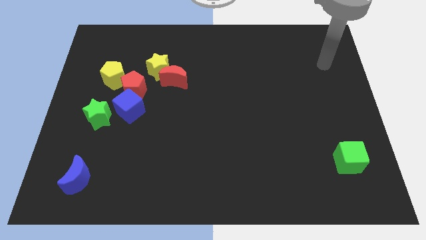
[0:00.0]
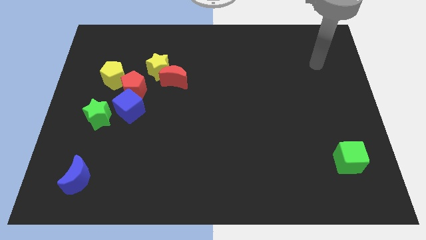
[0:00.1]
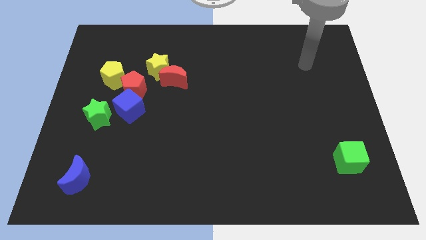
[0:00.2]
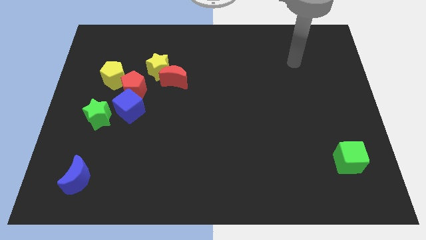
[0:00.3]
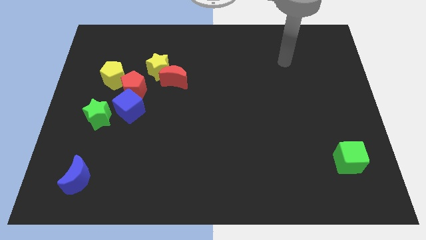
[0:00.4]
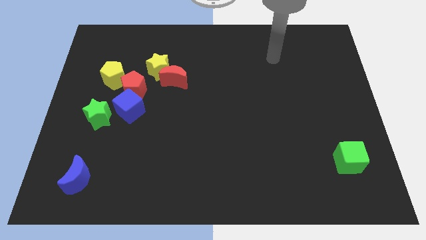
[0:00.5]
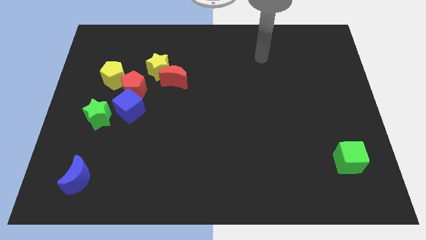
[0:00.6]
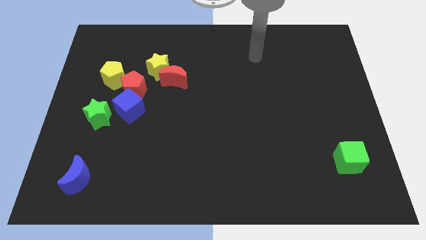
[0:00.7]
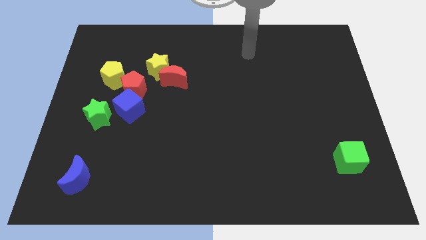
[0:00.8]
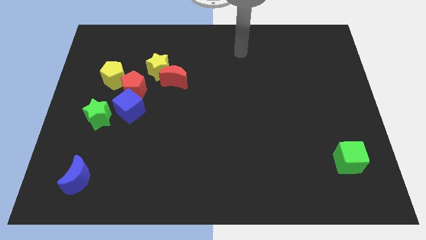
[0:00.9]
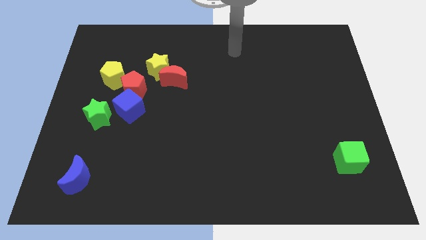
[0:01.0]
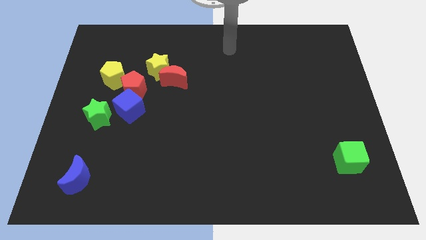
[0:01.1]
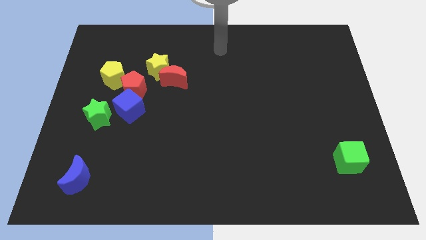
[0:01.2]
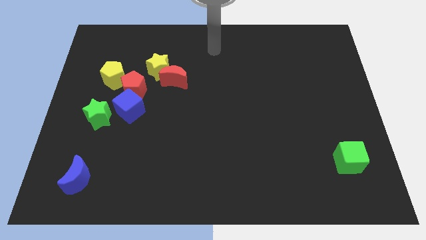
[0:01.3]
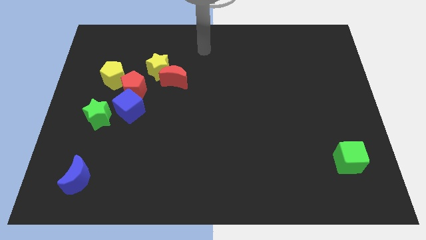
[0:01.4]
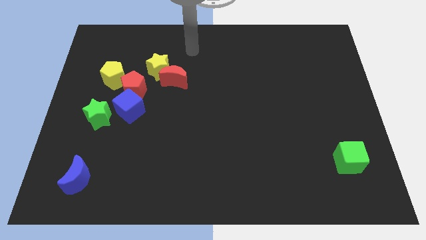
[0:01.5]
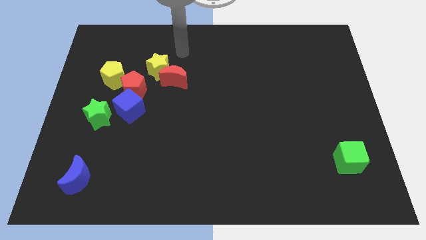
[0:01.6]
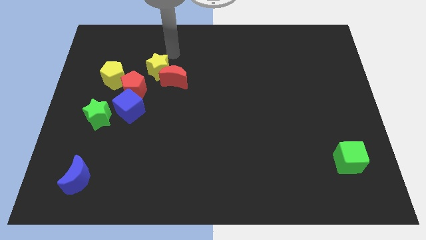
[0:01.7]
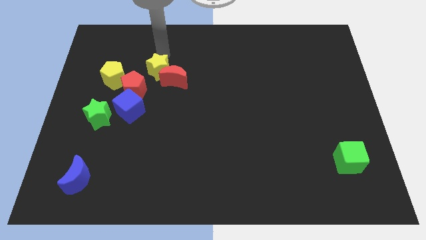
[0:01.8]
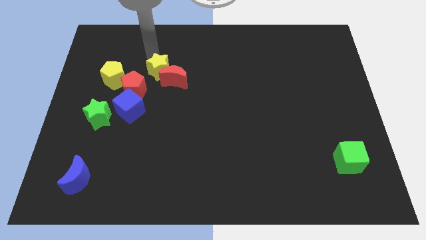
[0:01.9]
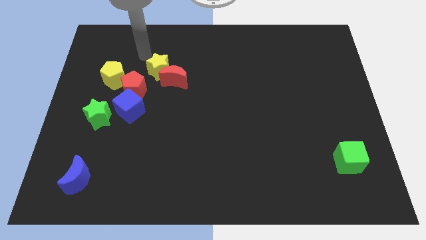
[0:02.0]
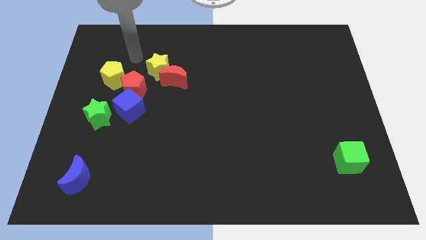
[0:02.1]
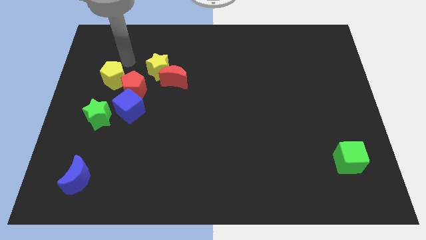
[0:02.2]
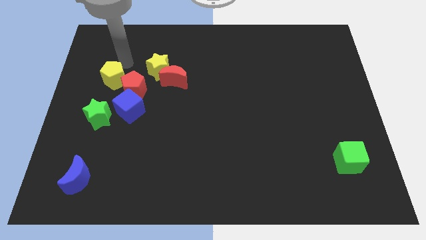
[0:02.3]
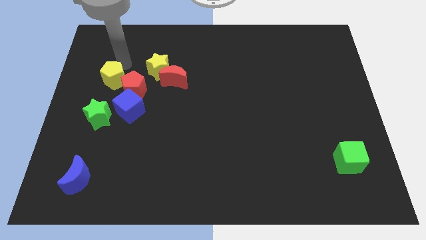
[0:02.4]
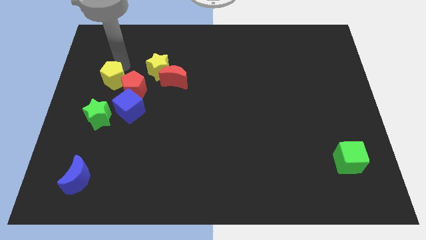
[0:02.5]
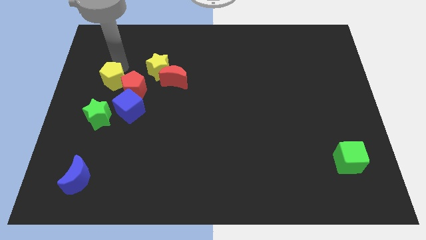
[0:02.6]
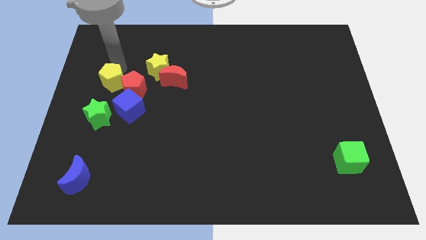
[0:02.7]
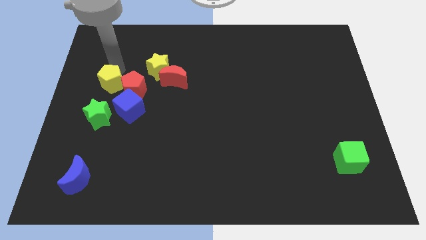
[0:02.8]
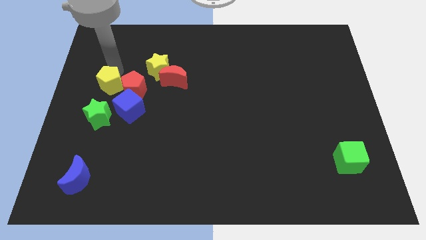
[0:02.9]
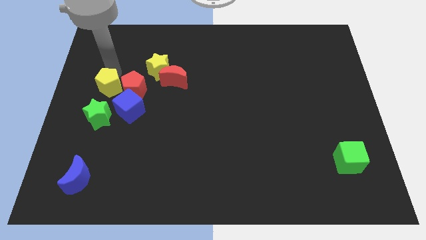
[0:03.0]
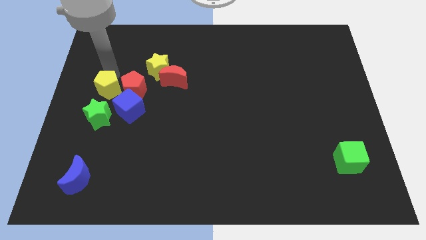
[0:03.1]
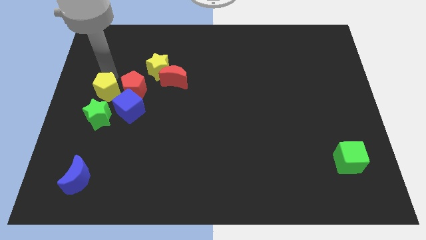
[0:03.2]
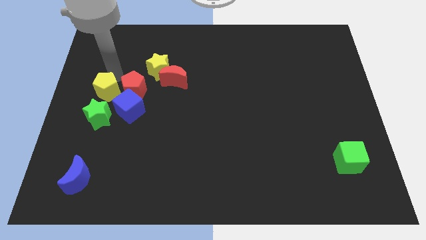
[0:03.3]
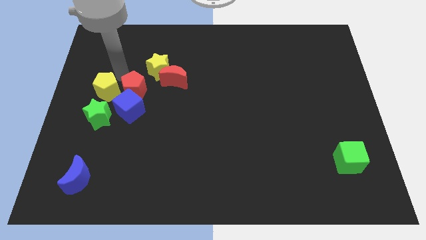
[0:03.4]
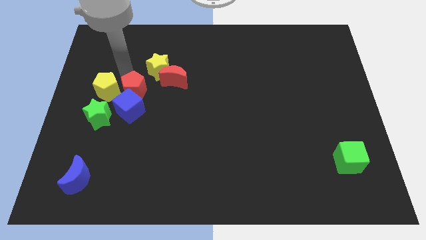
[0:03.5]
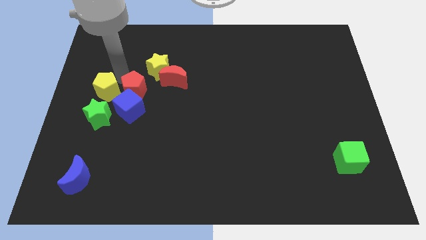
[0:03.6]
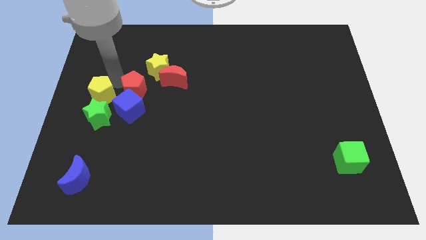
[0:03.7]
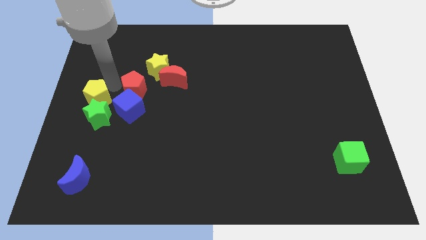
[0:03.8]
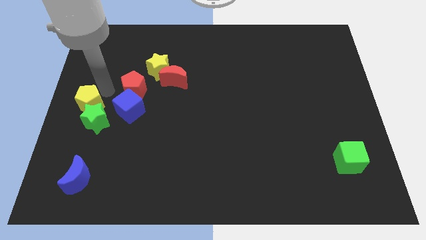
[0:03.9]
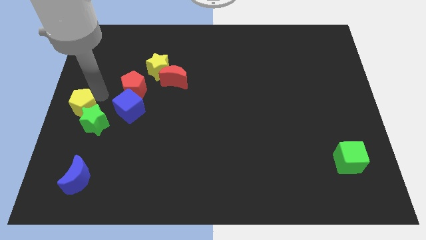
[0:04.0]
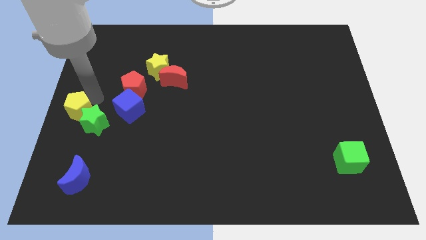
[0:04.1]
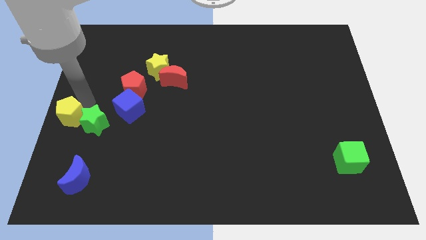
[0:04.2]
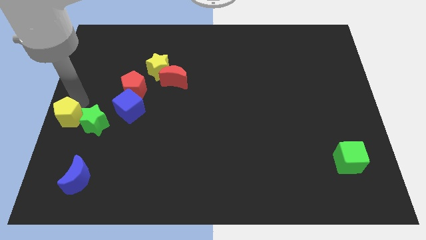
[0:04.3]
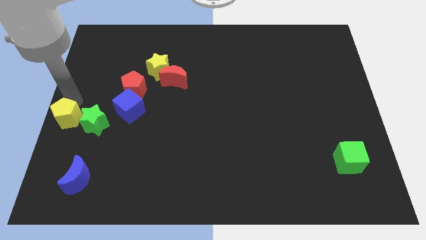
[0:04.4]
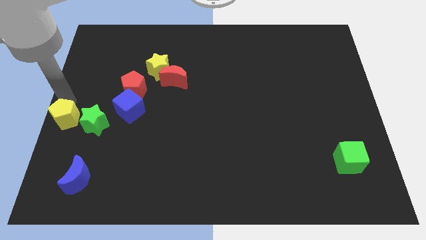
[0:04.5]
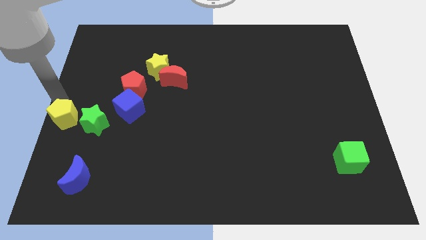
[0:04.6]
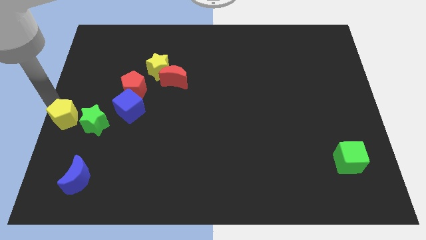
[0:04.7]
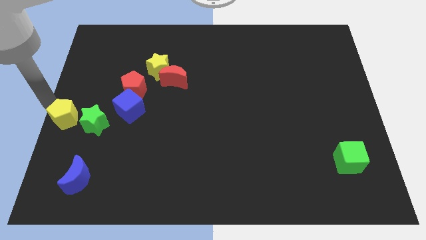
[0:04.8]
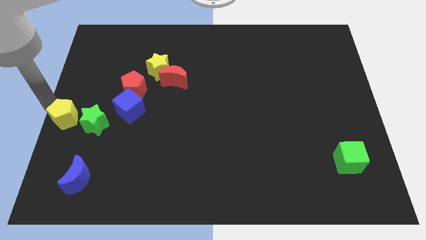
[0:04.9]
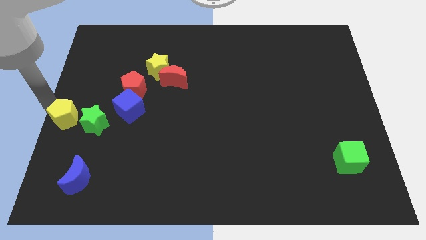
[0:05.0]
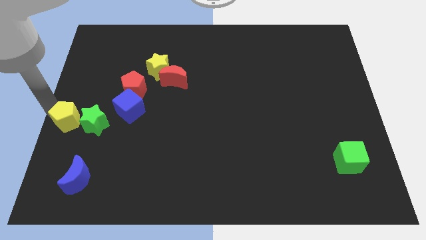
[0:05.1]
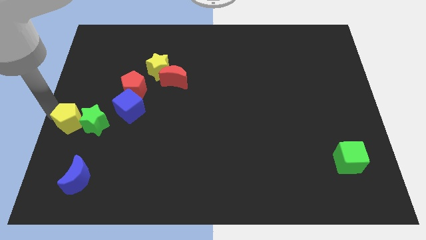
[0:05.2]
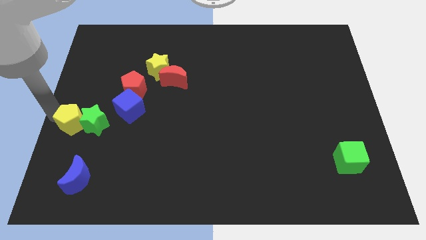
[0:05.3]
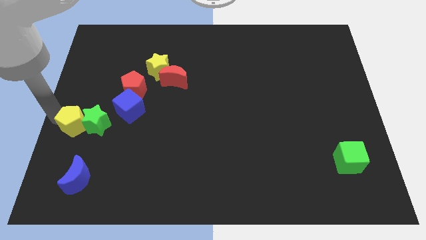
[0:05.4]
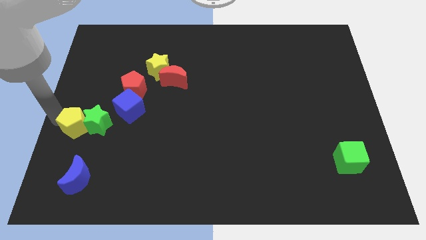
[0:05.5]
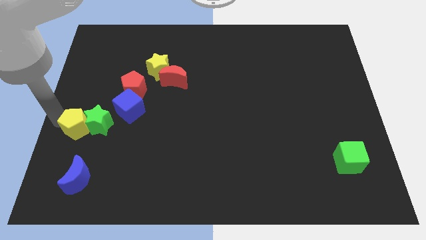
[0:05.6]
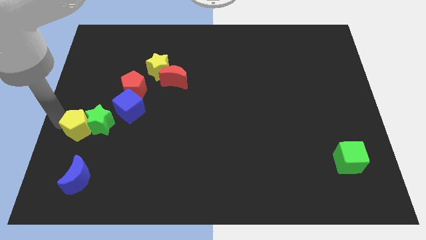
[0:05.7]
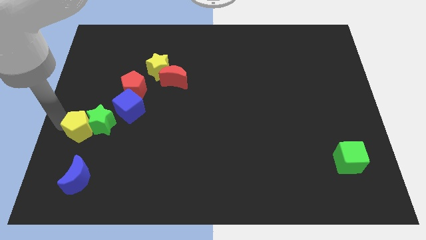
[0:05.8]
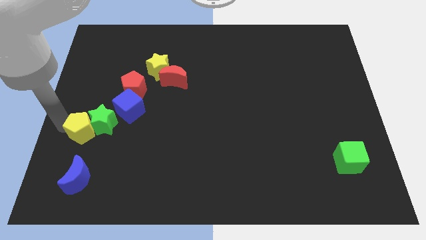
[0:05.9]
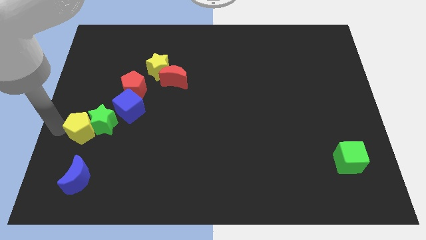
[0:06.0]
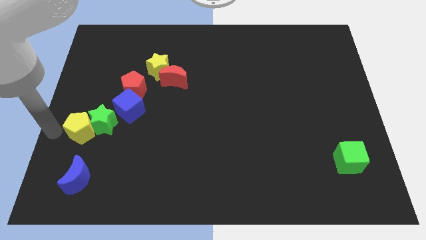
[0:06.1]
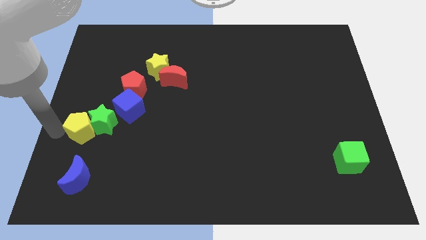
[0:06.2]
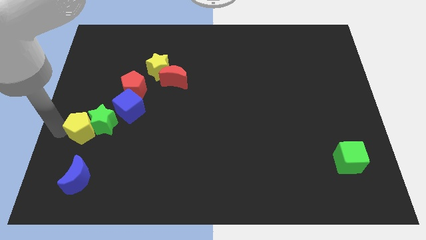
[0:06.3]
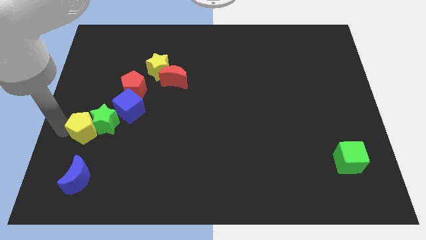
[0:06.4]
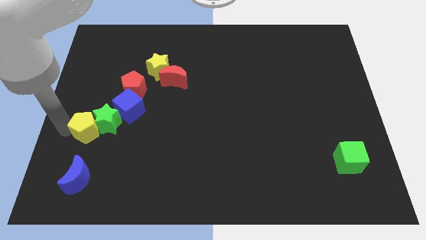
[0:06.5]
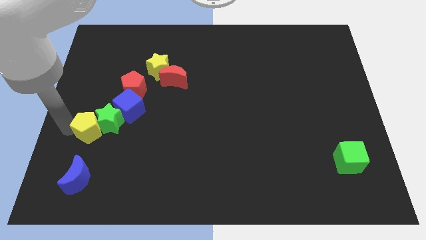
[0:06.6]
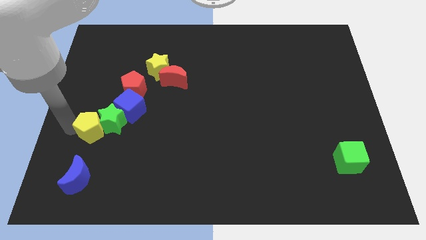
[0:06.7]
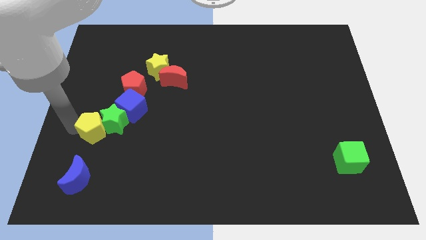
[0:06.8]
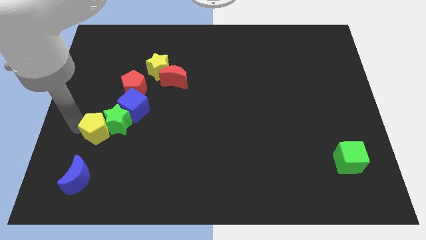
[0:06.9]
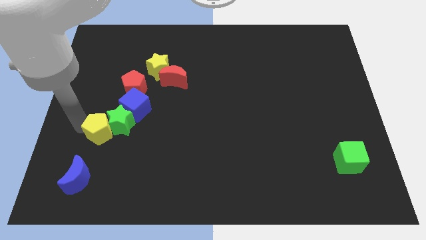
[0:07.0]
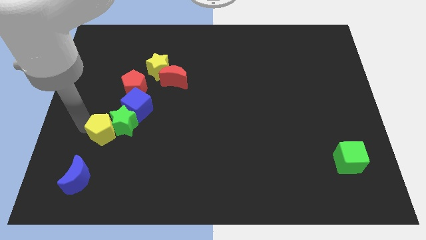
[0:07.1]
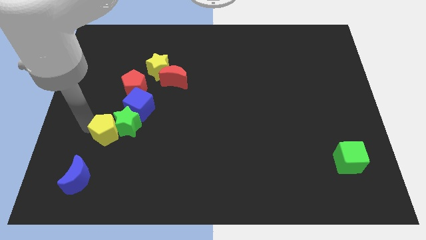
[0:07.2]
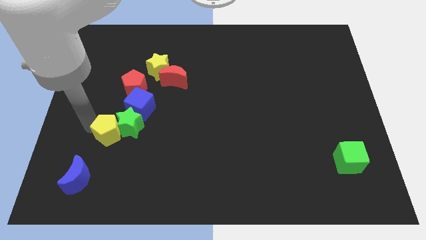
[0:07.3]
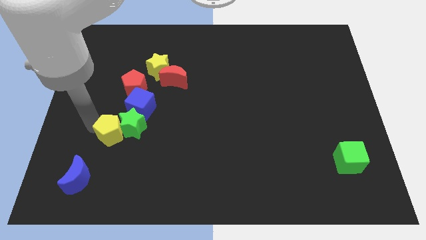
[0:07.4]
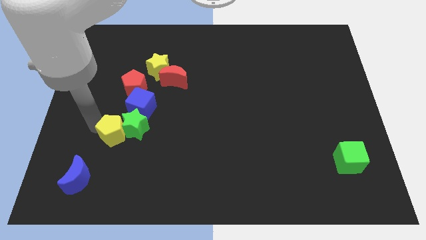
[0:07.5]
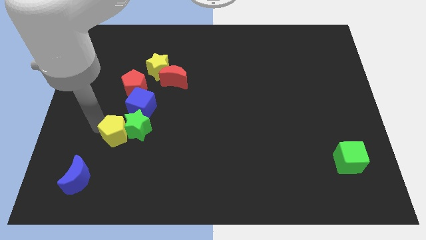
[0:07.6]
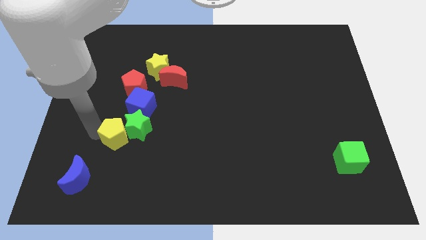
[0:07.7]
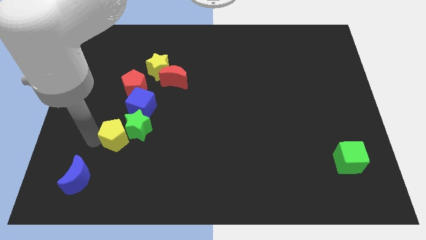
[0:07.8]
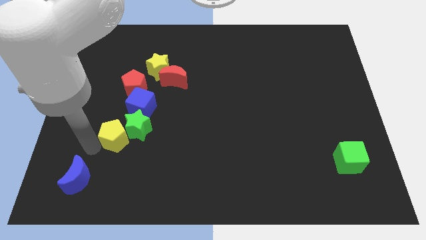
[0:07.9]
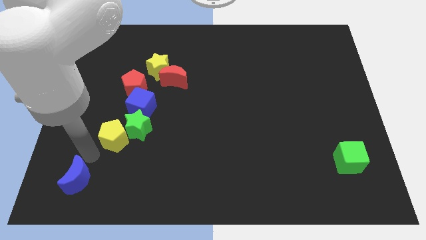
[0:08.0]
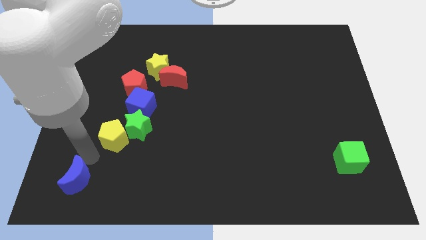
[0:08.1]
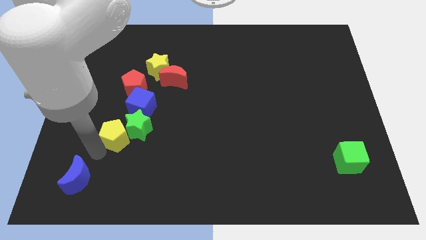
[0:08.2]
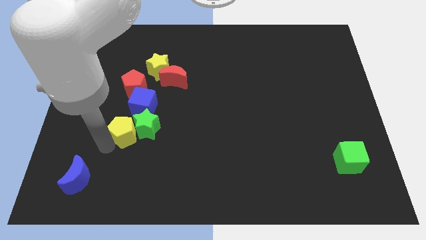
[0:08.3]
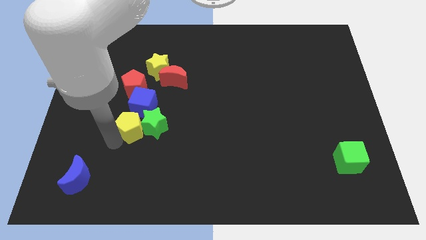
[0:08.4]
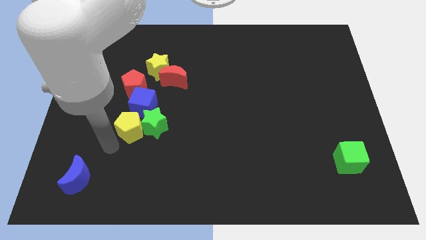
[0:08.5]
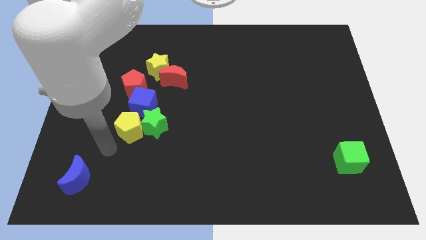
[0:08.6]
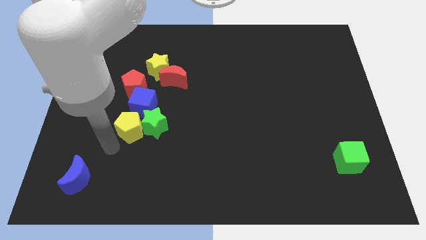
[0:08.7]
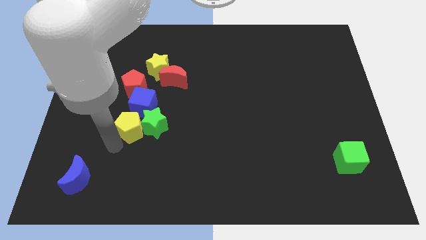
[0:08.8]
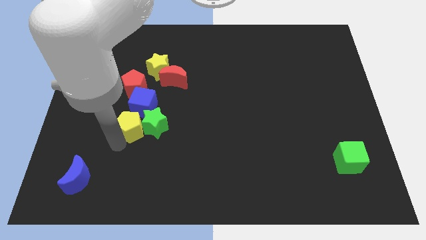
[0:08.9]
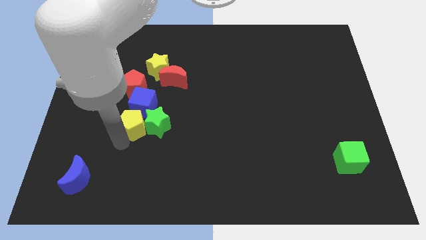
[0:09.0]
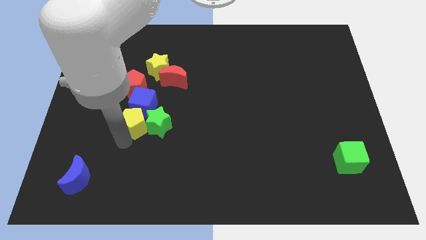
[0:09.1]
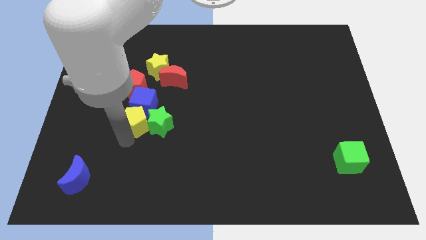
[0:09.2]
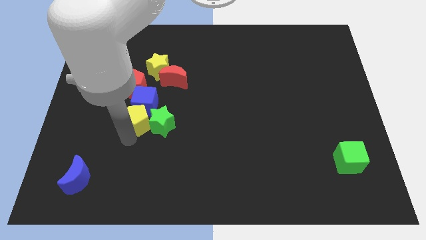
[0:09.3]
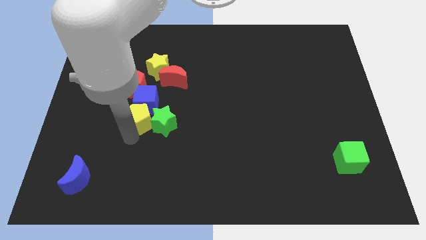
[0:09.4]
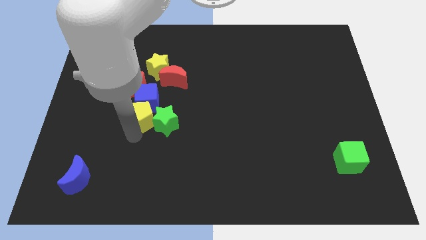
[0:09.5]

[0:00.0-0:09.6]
move the yellow pentagon to the bottom of the yellow star
